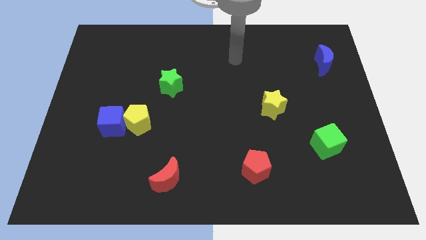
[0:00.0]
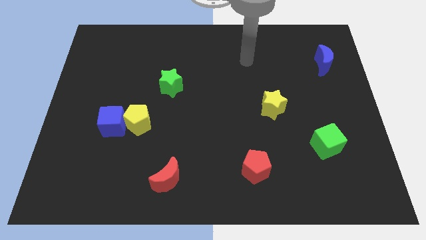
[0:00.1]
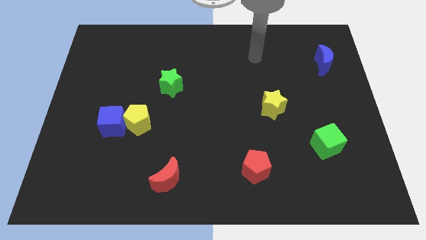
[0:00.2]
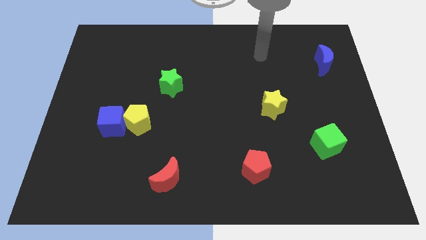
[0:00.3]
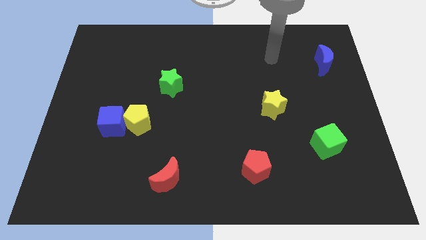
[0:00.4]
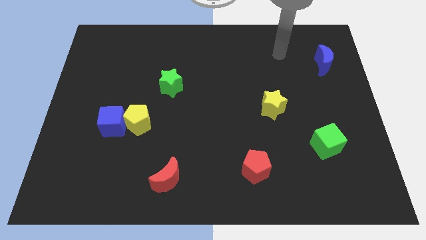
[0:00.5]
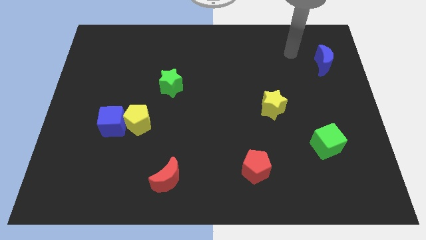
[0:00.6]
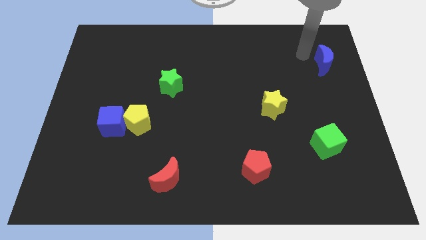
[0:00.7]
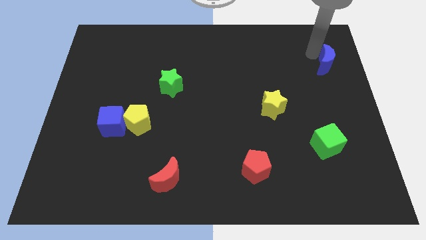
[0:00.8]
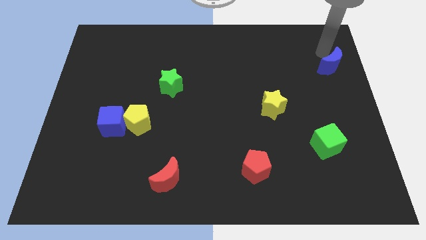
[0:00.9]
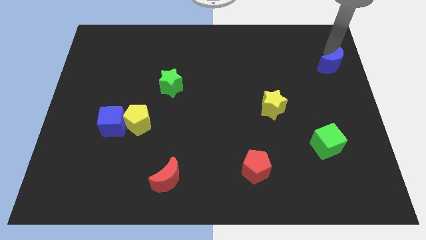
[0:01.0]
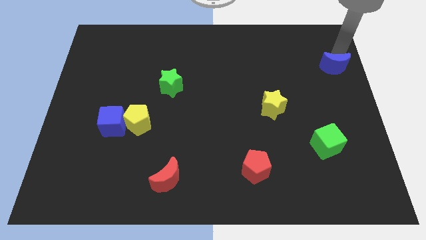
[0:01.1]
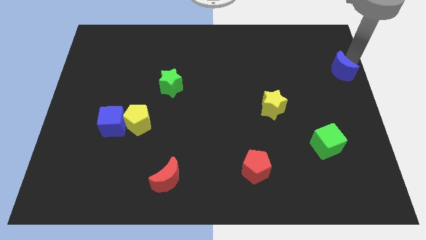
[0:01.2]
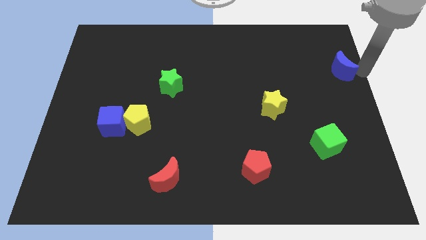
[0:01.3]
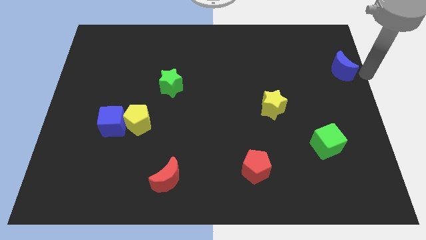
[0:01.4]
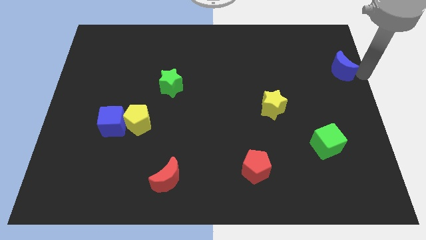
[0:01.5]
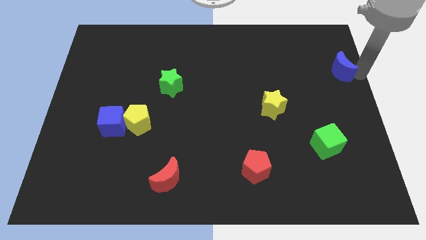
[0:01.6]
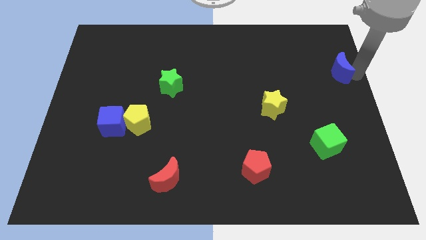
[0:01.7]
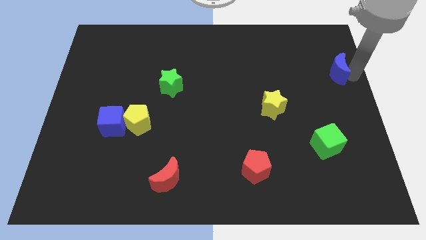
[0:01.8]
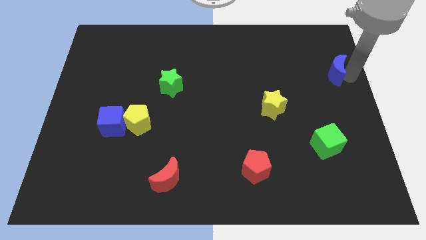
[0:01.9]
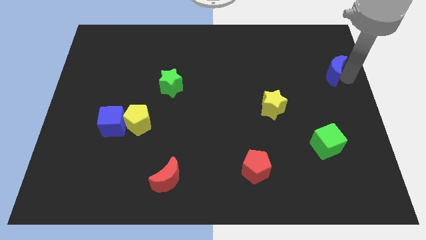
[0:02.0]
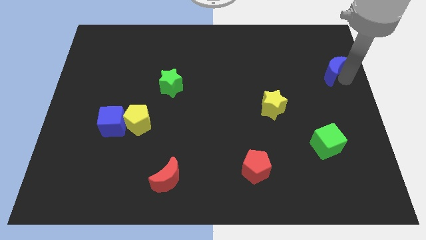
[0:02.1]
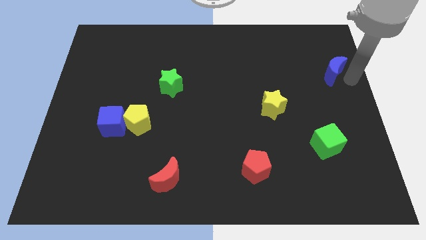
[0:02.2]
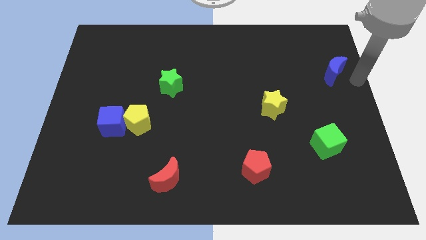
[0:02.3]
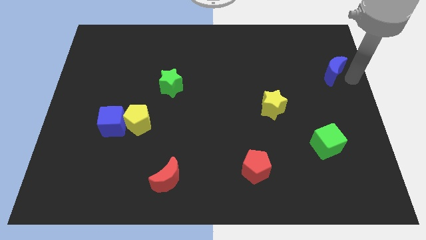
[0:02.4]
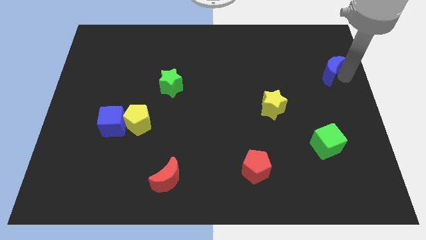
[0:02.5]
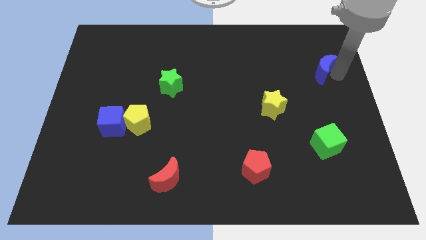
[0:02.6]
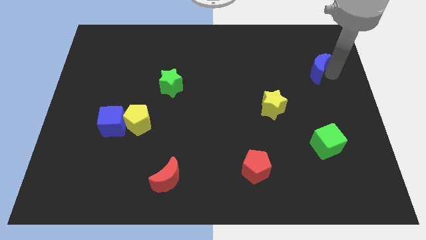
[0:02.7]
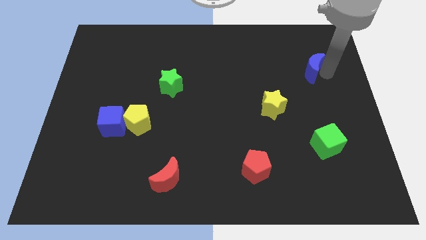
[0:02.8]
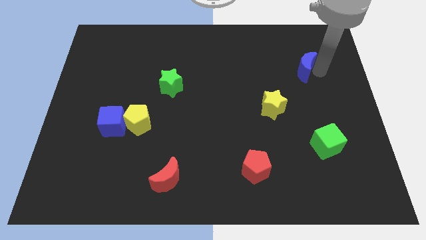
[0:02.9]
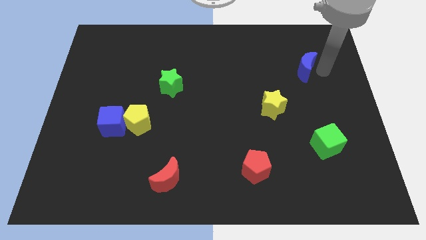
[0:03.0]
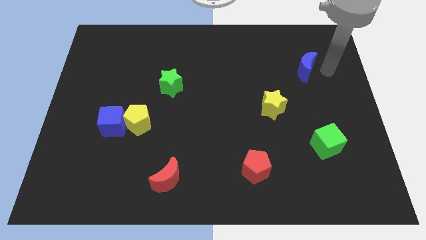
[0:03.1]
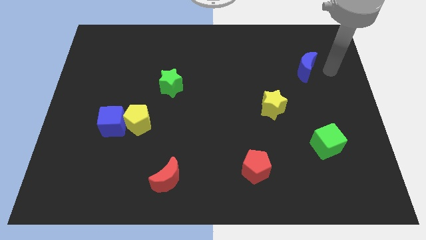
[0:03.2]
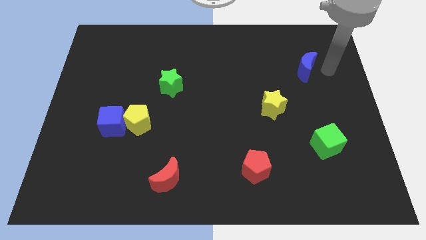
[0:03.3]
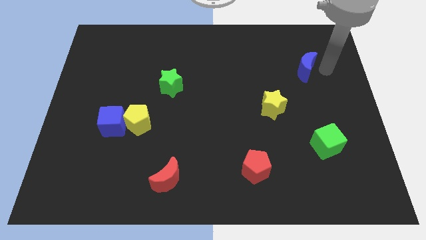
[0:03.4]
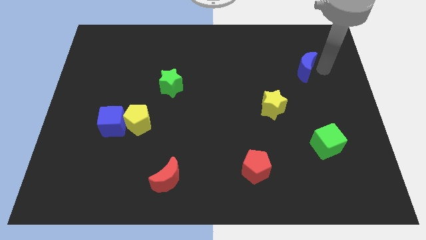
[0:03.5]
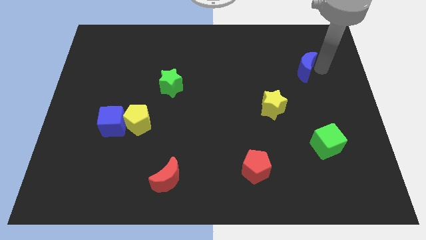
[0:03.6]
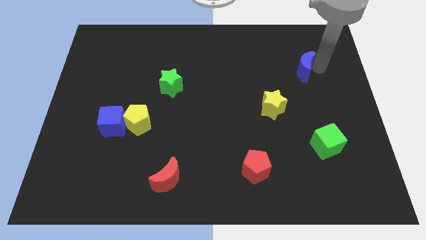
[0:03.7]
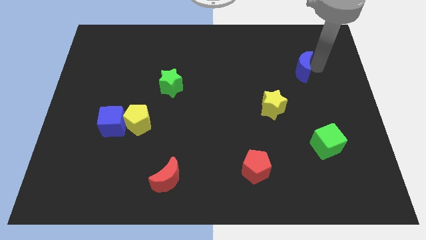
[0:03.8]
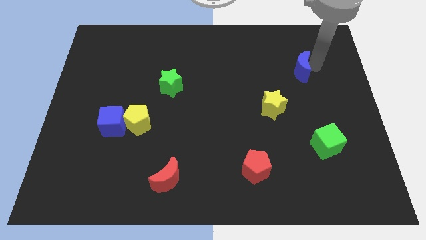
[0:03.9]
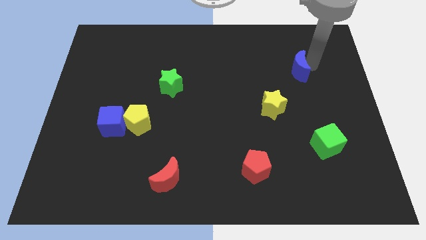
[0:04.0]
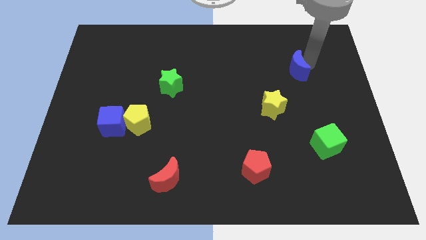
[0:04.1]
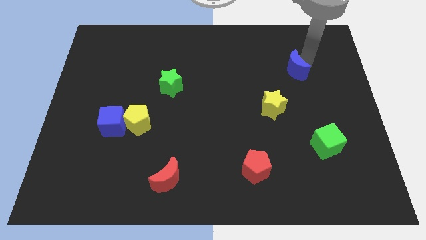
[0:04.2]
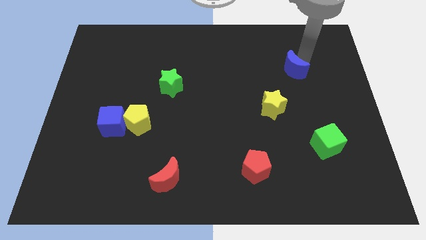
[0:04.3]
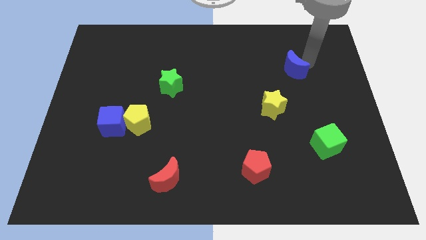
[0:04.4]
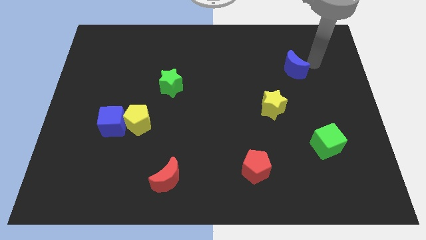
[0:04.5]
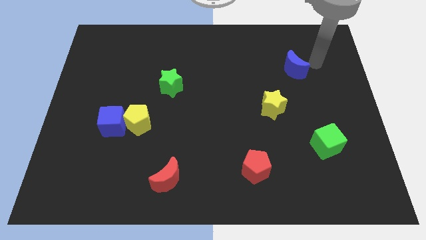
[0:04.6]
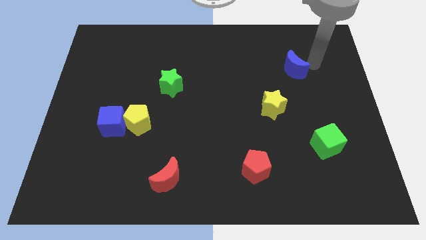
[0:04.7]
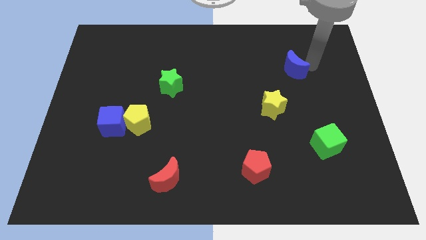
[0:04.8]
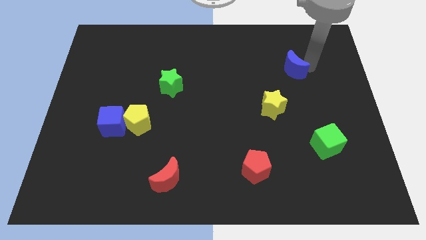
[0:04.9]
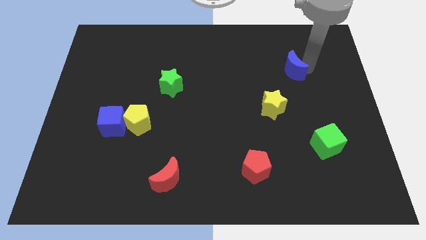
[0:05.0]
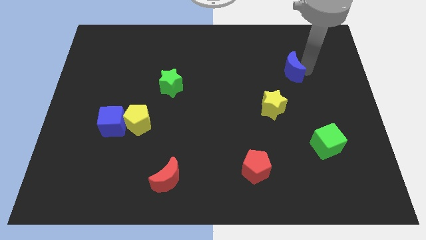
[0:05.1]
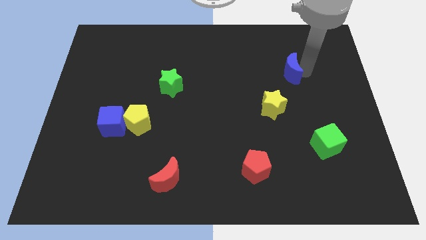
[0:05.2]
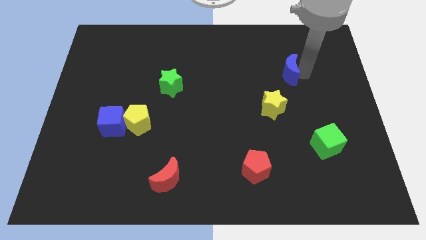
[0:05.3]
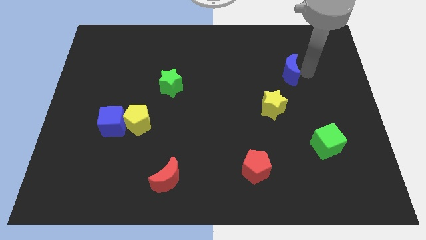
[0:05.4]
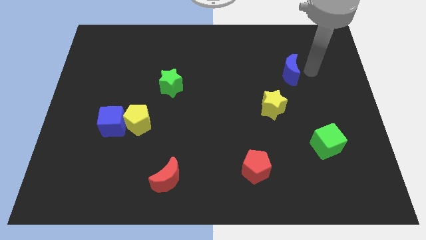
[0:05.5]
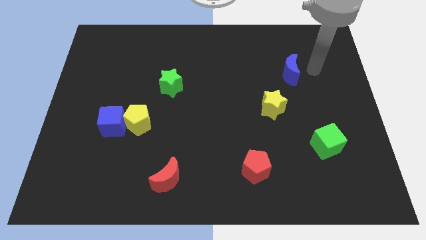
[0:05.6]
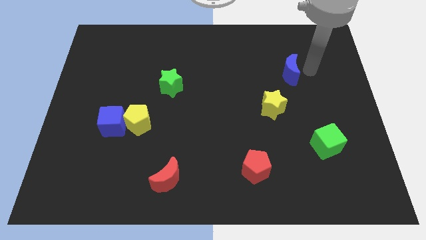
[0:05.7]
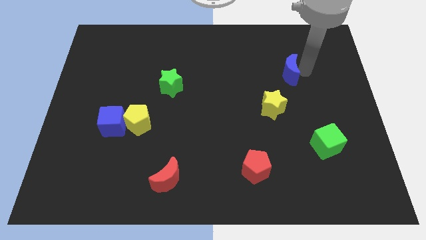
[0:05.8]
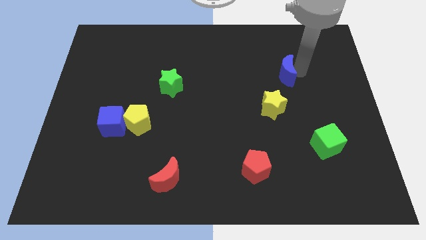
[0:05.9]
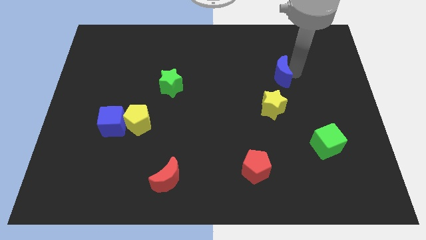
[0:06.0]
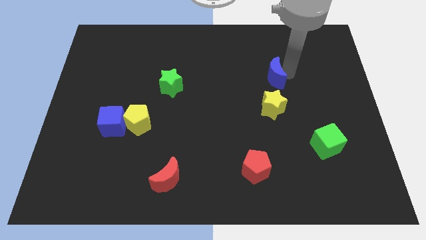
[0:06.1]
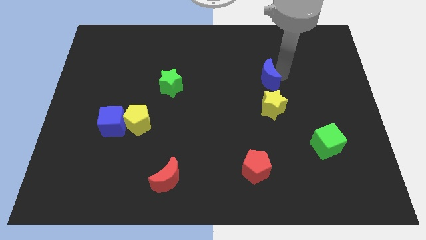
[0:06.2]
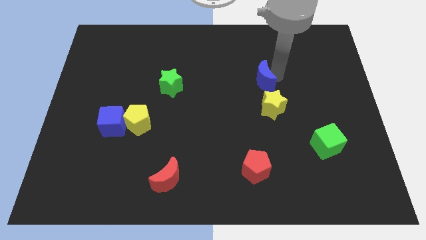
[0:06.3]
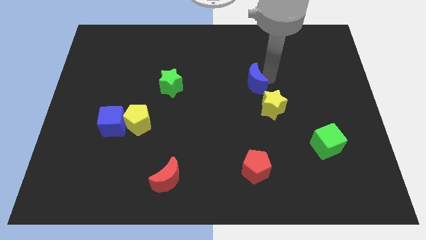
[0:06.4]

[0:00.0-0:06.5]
move the blue moon to the middle of the board
